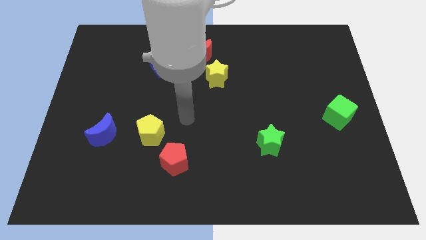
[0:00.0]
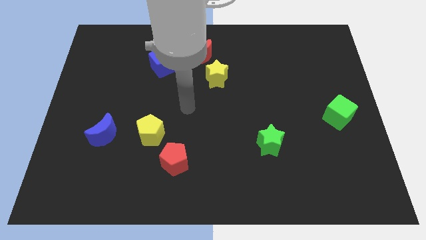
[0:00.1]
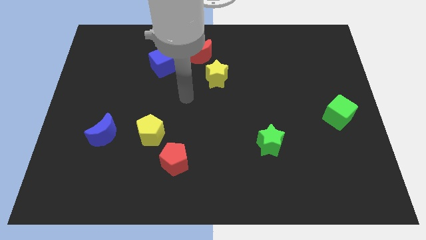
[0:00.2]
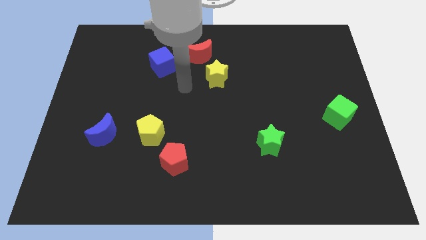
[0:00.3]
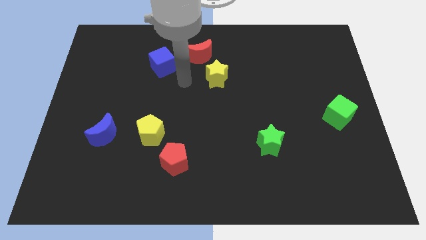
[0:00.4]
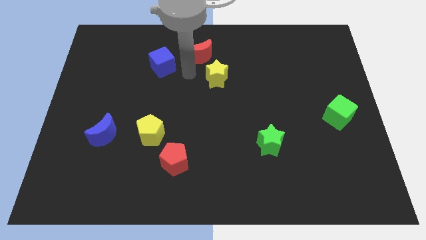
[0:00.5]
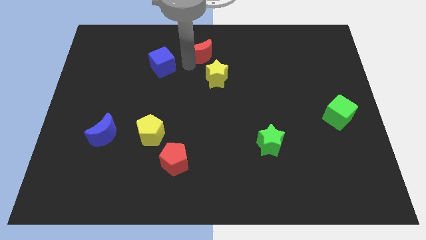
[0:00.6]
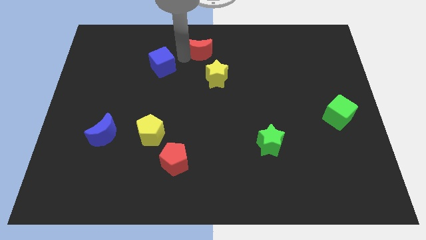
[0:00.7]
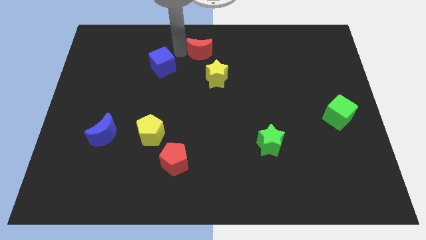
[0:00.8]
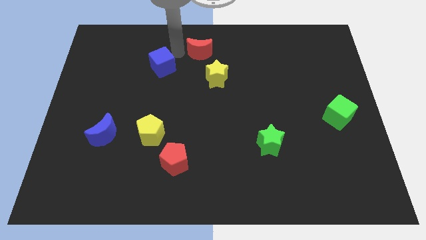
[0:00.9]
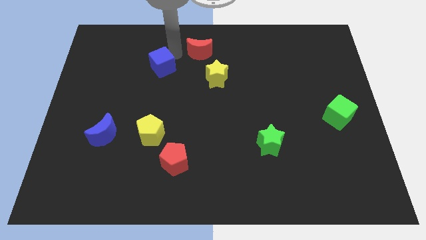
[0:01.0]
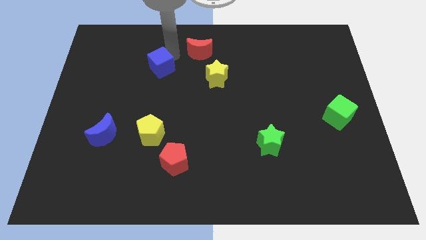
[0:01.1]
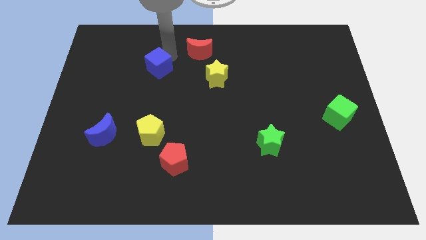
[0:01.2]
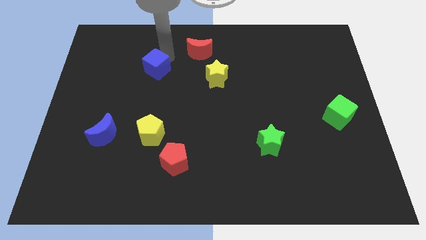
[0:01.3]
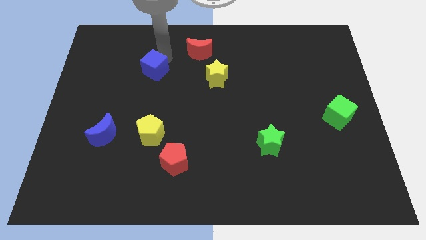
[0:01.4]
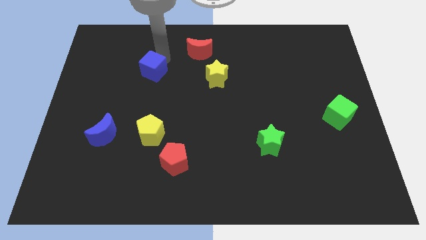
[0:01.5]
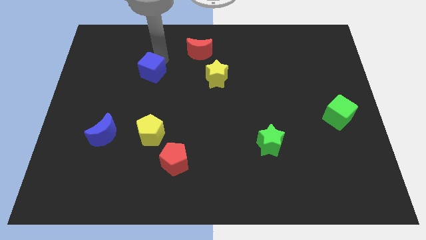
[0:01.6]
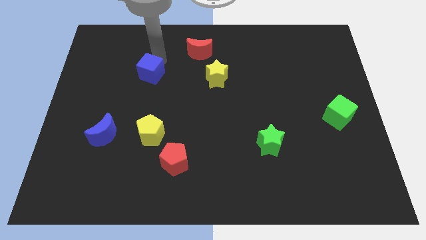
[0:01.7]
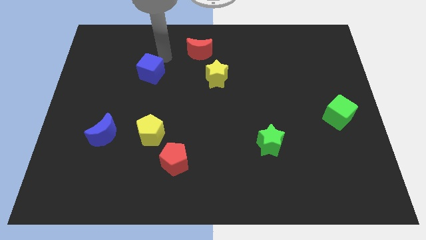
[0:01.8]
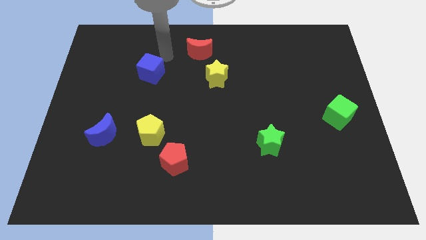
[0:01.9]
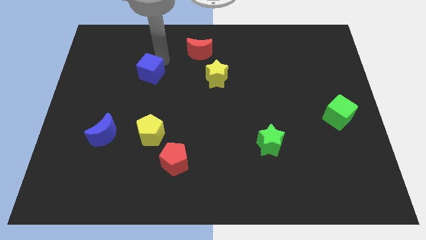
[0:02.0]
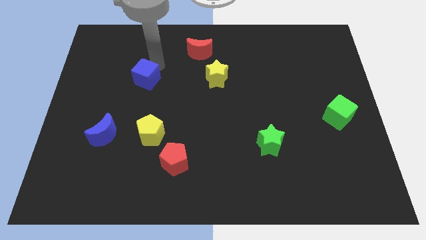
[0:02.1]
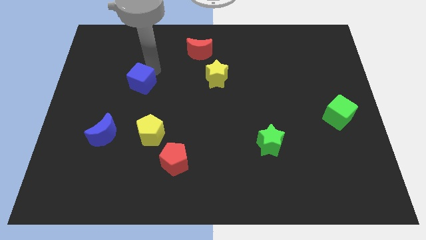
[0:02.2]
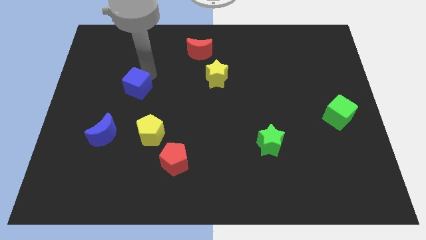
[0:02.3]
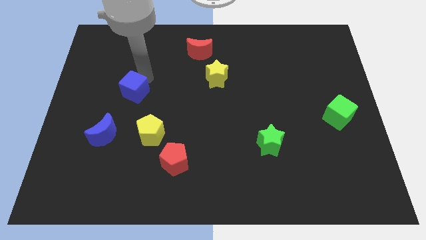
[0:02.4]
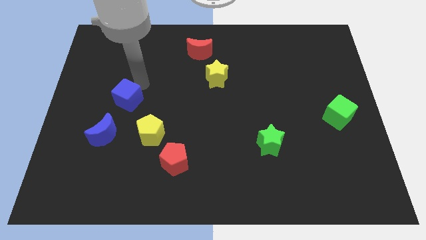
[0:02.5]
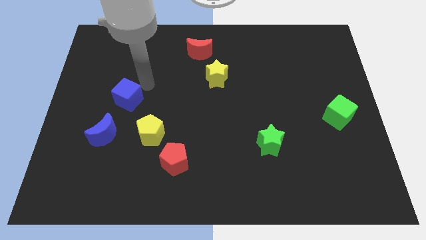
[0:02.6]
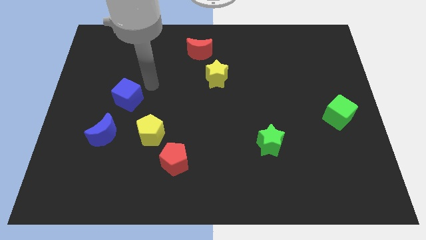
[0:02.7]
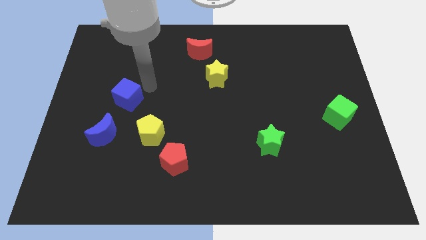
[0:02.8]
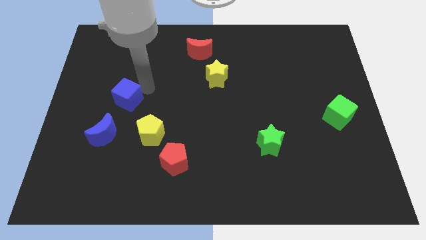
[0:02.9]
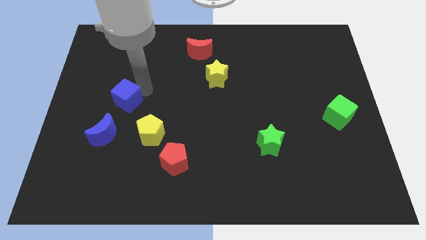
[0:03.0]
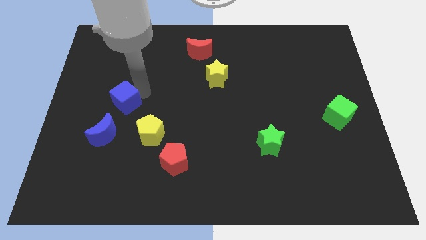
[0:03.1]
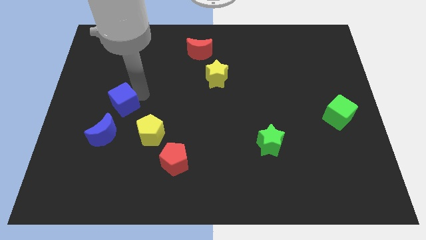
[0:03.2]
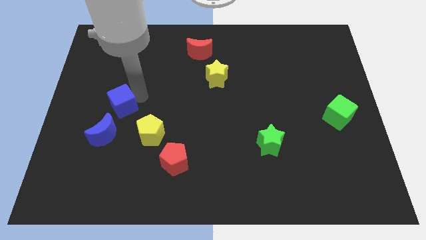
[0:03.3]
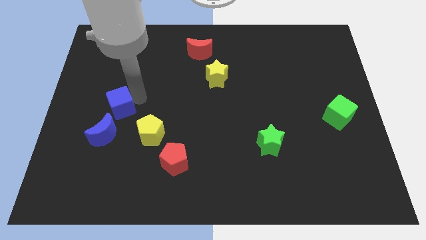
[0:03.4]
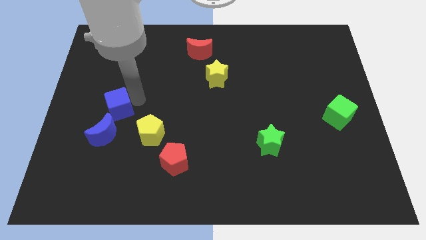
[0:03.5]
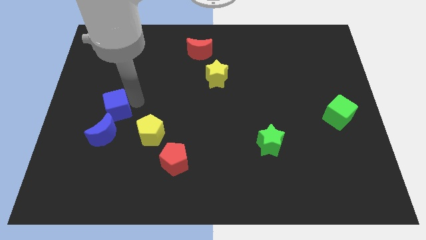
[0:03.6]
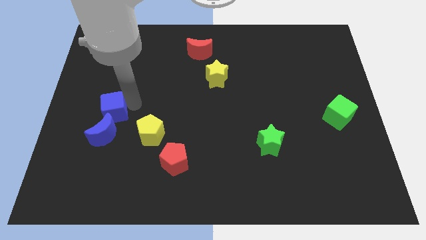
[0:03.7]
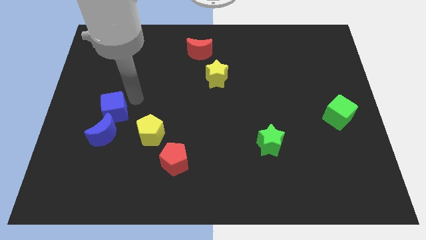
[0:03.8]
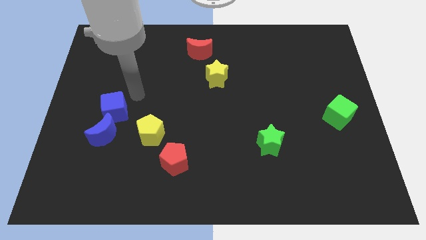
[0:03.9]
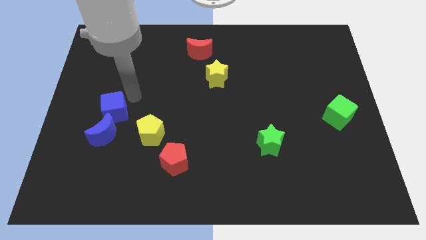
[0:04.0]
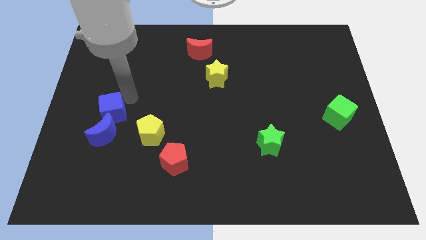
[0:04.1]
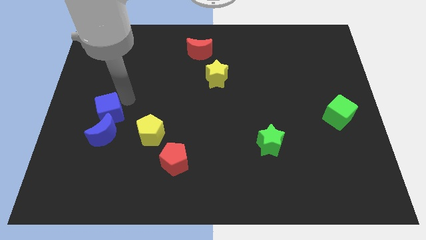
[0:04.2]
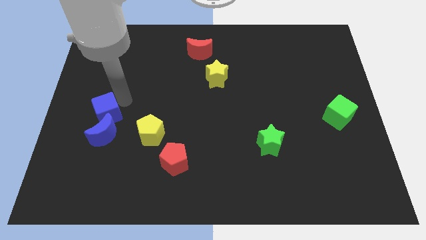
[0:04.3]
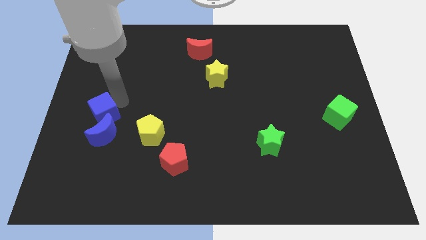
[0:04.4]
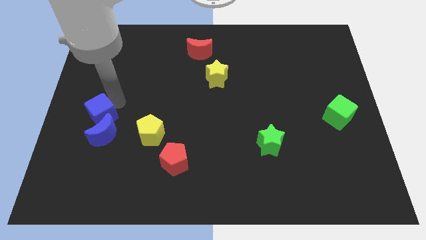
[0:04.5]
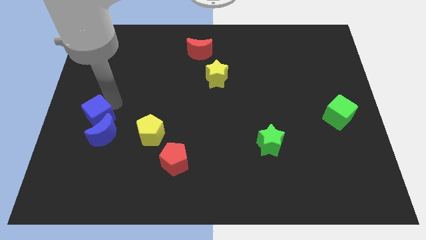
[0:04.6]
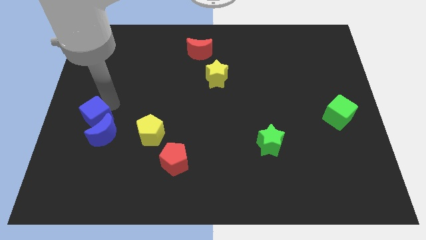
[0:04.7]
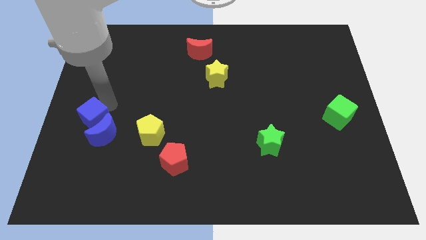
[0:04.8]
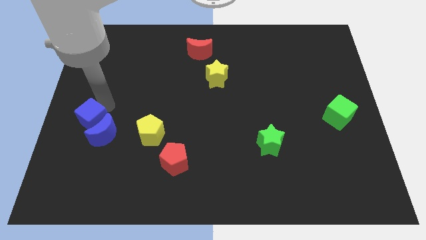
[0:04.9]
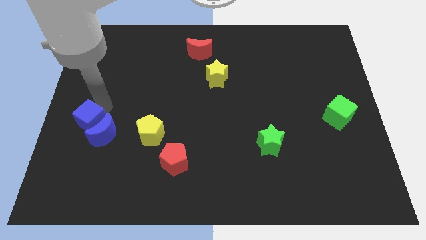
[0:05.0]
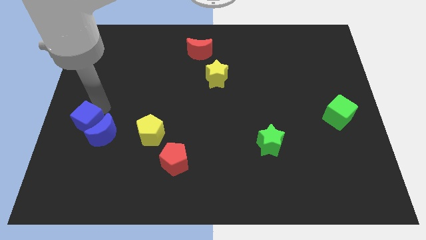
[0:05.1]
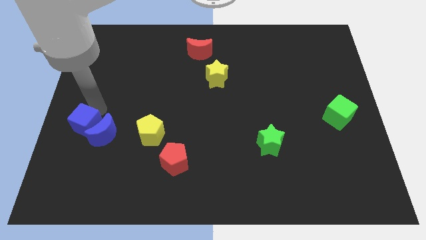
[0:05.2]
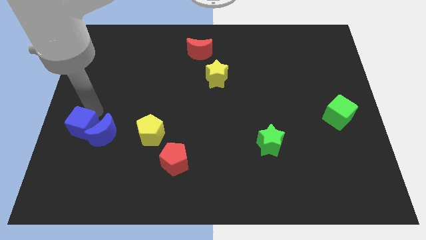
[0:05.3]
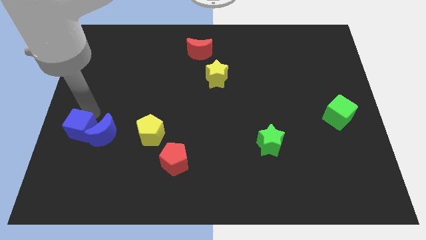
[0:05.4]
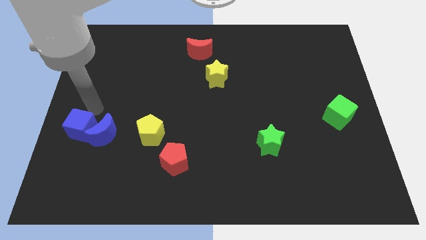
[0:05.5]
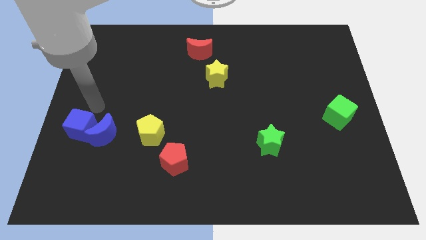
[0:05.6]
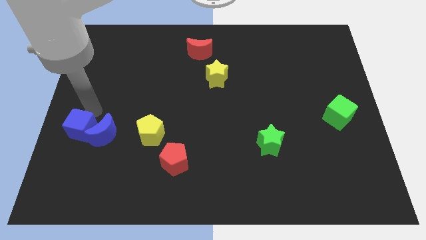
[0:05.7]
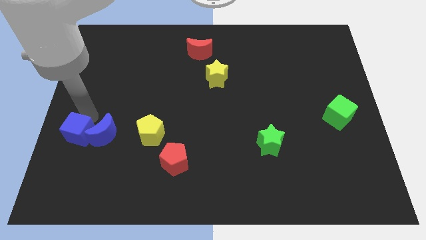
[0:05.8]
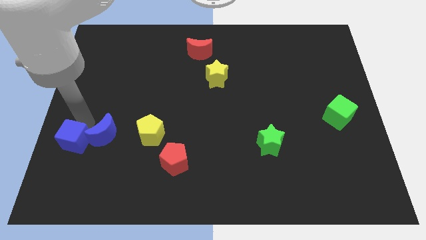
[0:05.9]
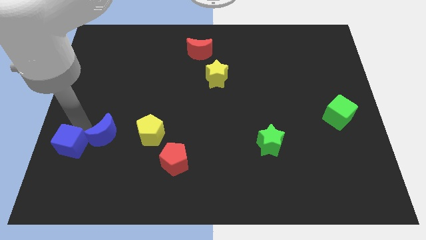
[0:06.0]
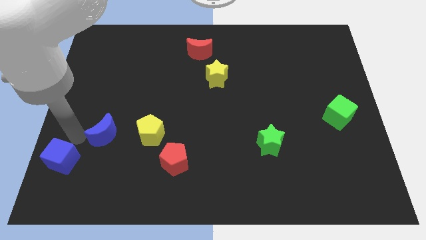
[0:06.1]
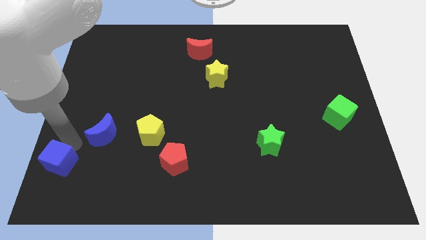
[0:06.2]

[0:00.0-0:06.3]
slide the blue cube to the bottom left

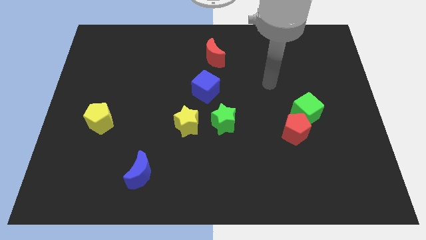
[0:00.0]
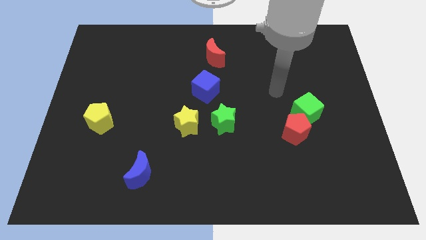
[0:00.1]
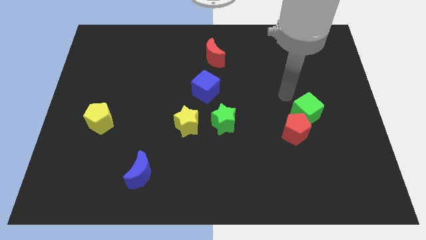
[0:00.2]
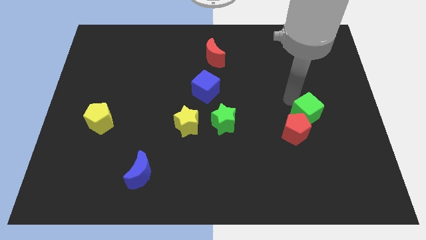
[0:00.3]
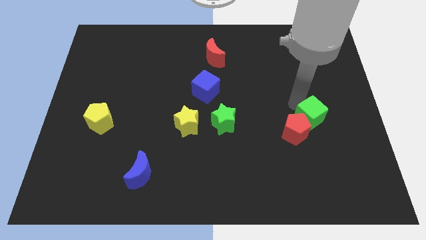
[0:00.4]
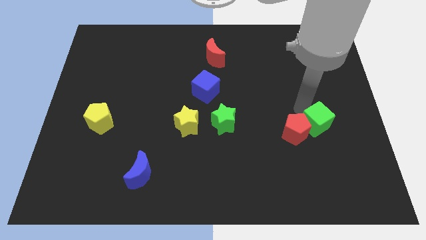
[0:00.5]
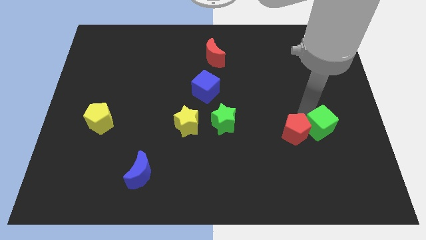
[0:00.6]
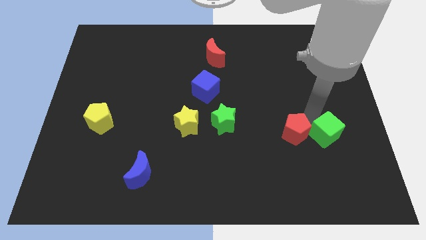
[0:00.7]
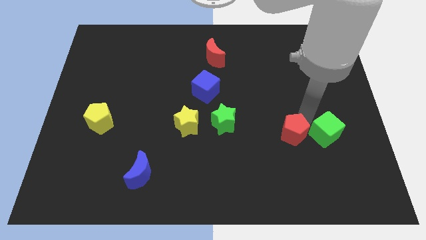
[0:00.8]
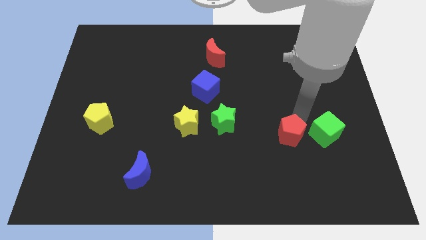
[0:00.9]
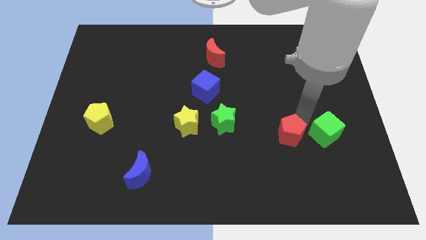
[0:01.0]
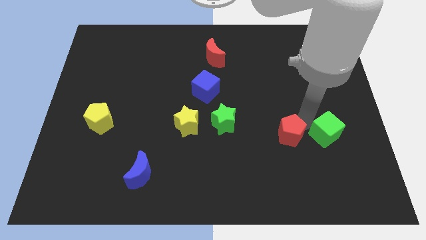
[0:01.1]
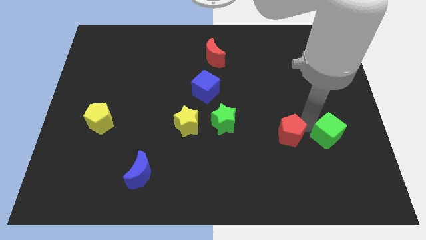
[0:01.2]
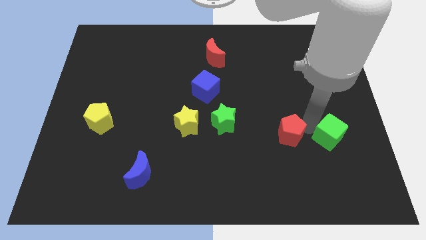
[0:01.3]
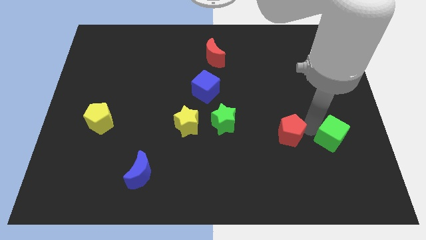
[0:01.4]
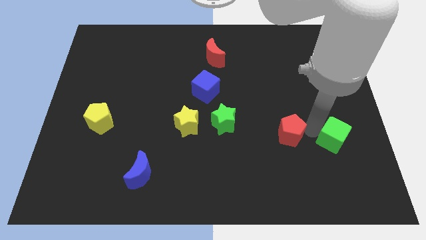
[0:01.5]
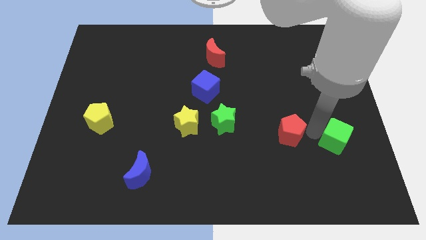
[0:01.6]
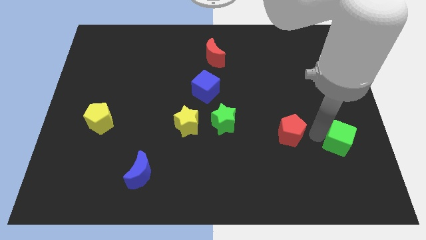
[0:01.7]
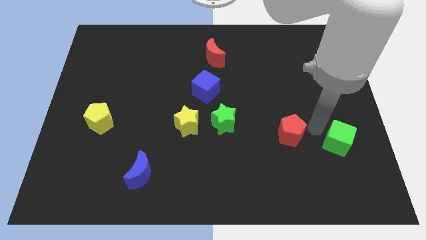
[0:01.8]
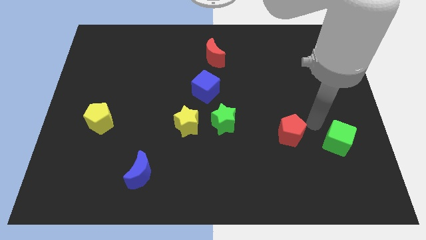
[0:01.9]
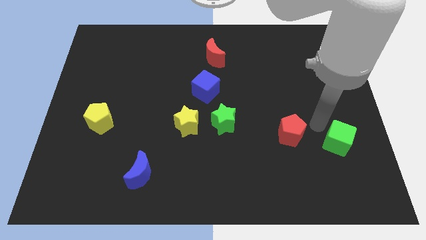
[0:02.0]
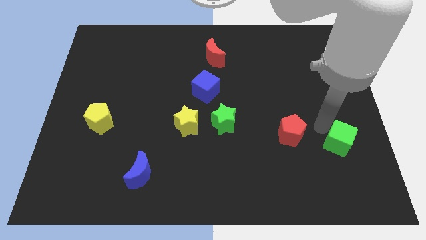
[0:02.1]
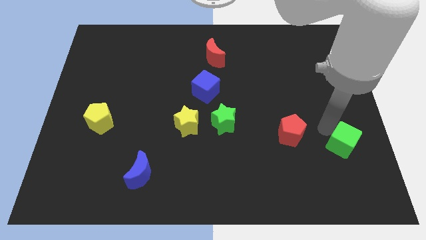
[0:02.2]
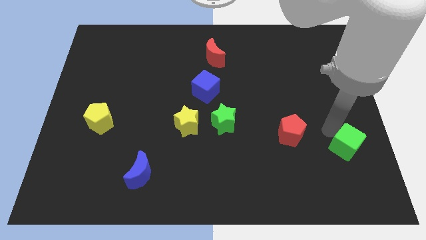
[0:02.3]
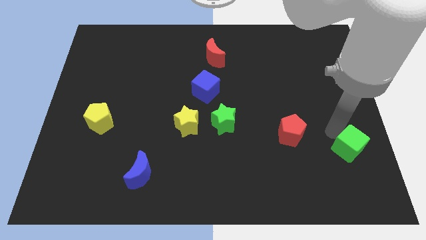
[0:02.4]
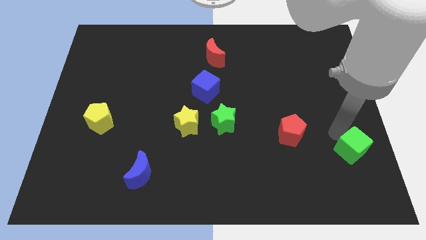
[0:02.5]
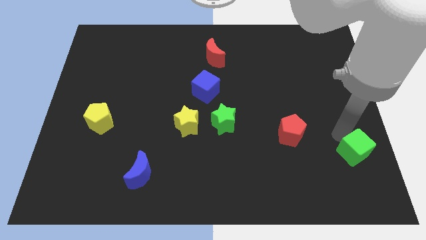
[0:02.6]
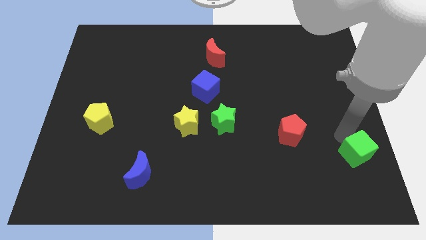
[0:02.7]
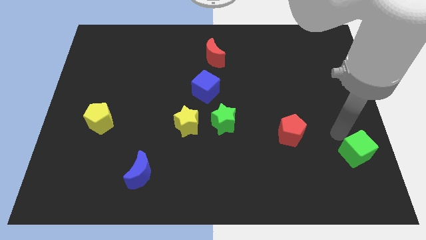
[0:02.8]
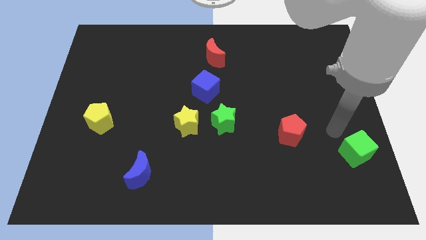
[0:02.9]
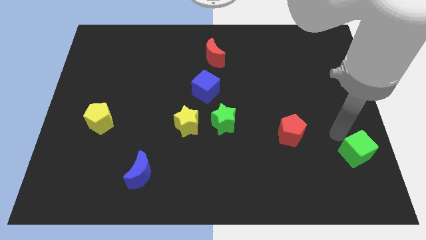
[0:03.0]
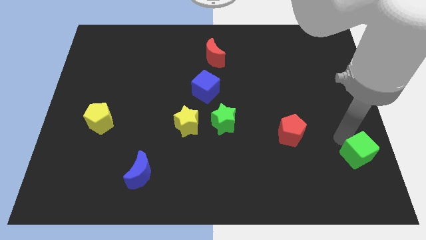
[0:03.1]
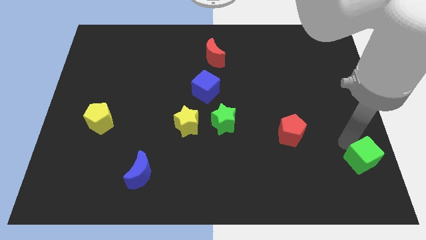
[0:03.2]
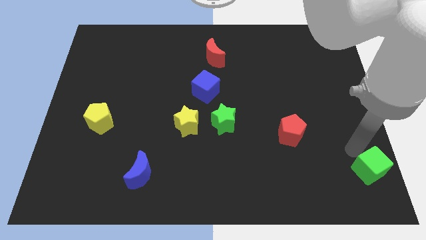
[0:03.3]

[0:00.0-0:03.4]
push the green cube to the lower right corner
